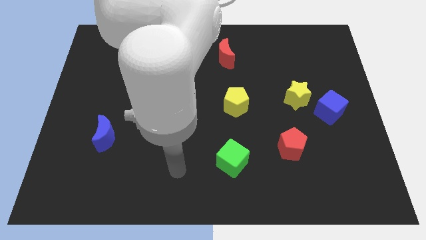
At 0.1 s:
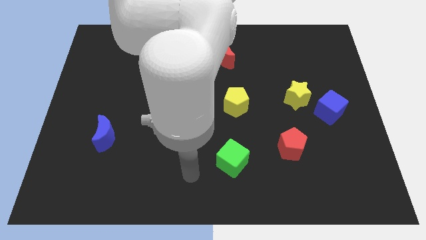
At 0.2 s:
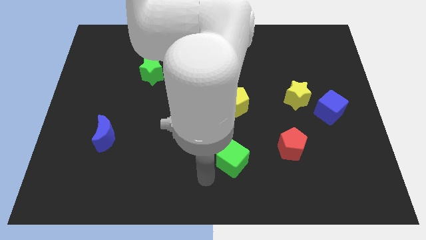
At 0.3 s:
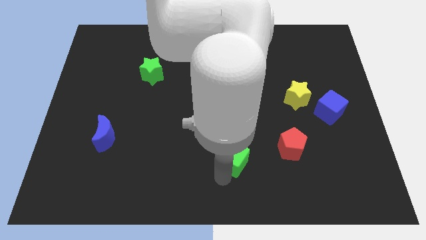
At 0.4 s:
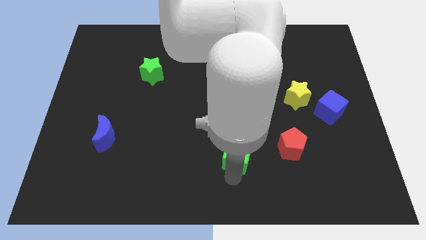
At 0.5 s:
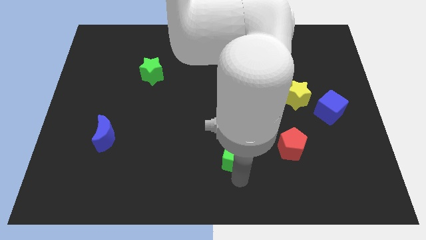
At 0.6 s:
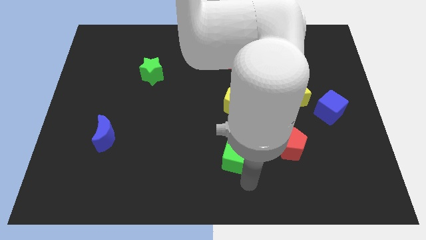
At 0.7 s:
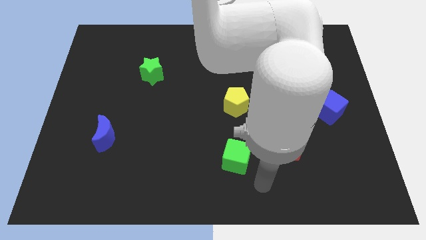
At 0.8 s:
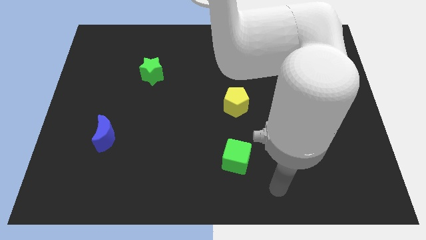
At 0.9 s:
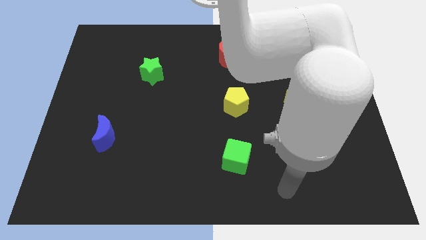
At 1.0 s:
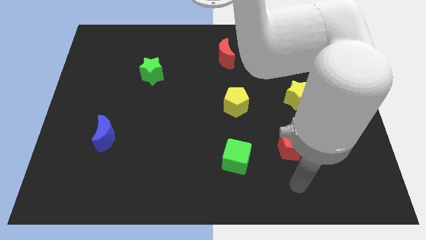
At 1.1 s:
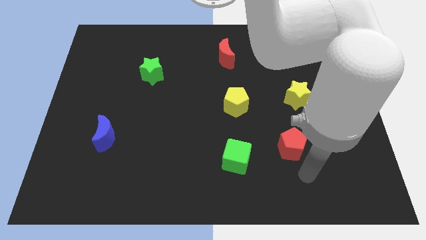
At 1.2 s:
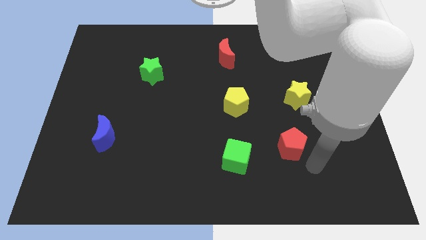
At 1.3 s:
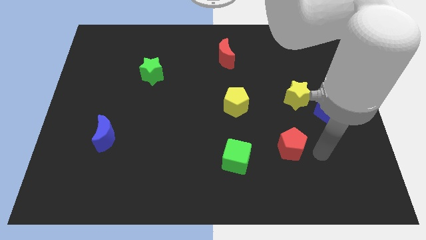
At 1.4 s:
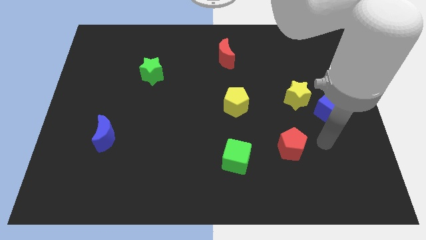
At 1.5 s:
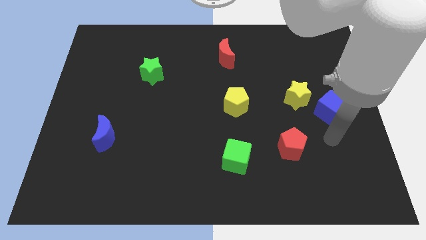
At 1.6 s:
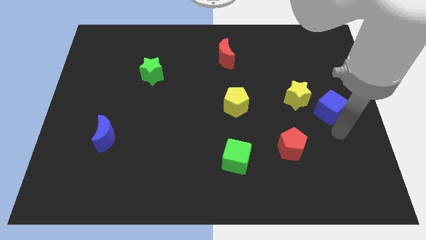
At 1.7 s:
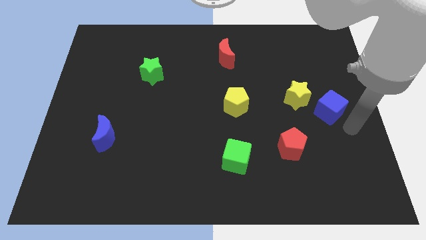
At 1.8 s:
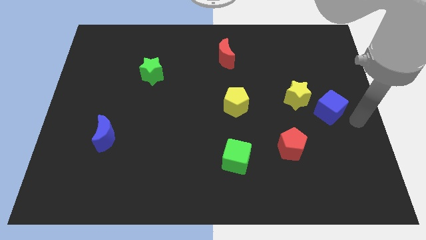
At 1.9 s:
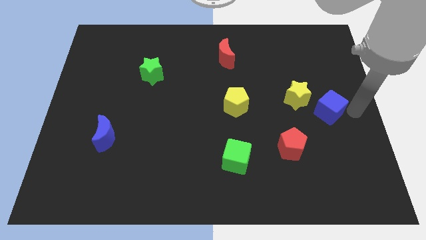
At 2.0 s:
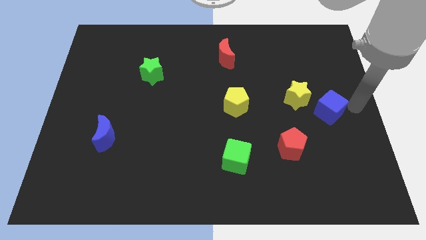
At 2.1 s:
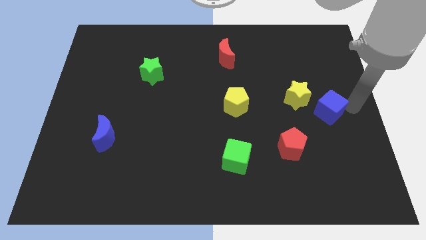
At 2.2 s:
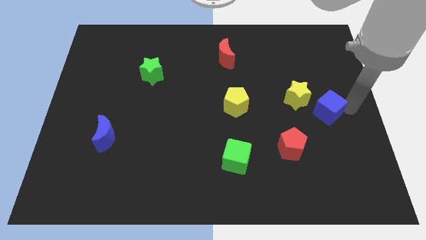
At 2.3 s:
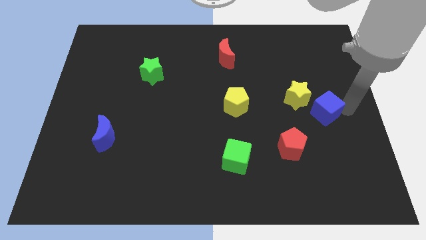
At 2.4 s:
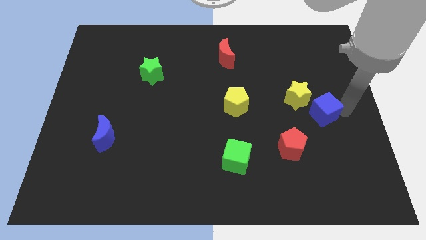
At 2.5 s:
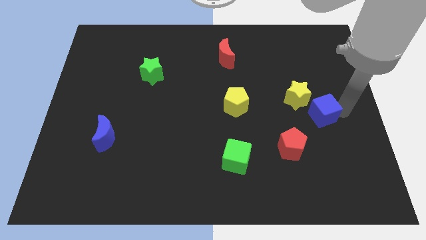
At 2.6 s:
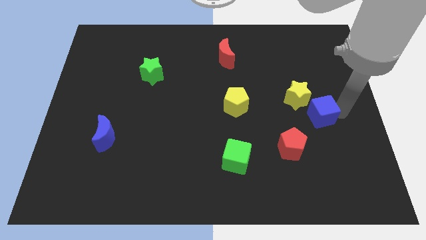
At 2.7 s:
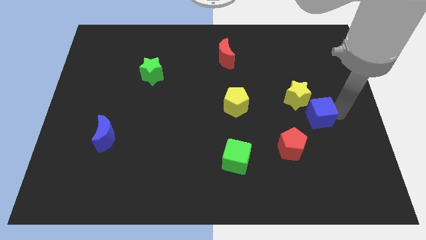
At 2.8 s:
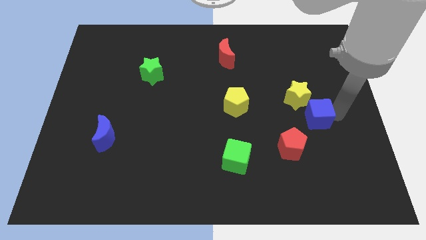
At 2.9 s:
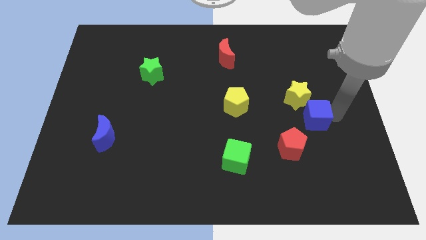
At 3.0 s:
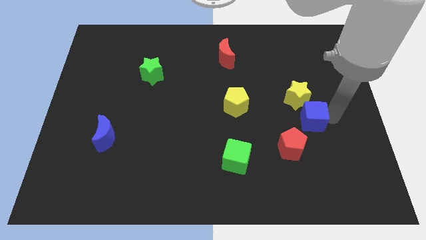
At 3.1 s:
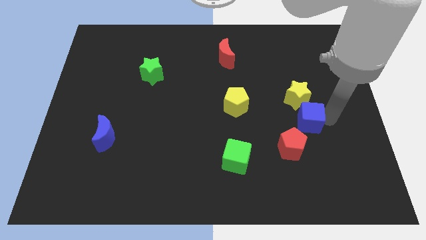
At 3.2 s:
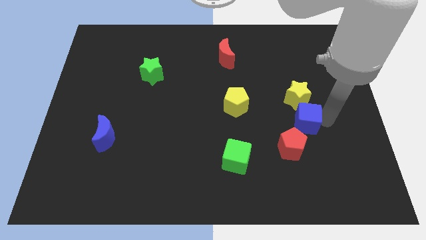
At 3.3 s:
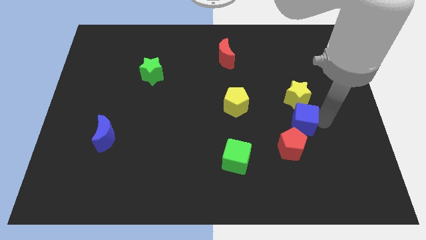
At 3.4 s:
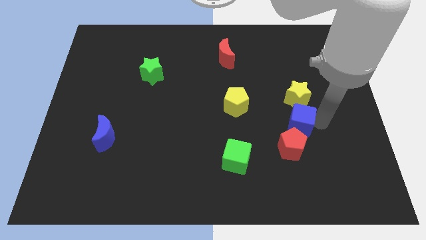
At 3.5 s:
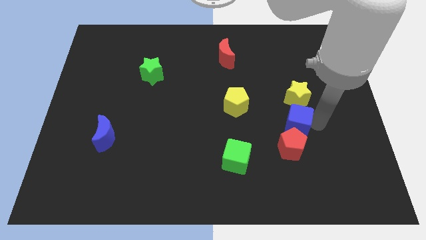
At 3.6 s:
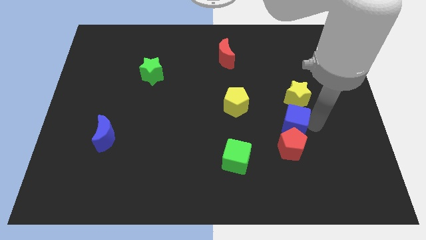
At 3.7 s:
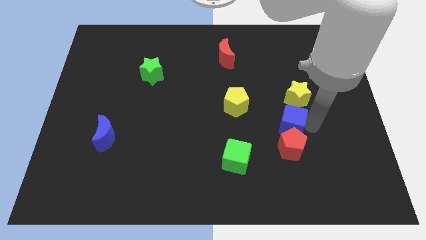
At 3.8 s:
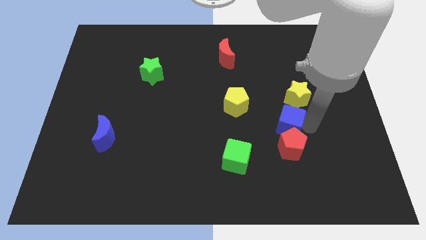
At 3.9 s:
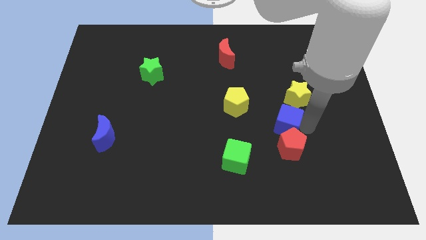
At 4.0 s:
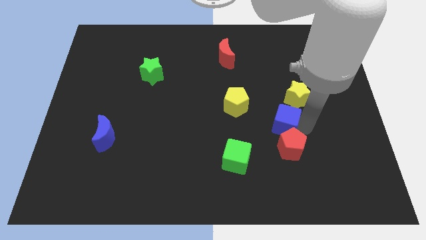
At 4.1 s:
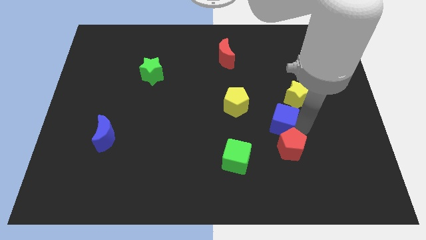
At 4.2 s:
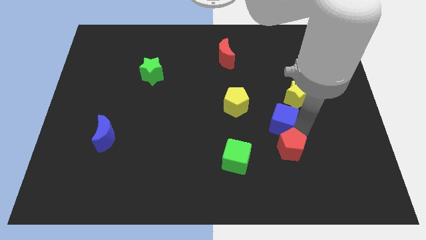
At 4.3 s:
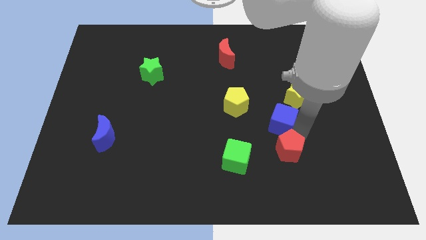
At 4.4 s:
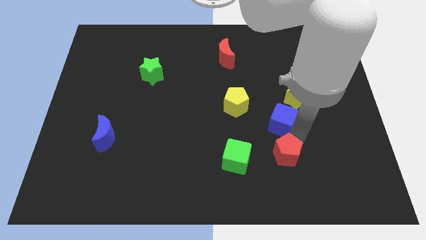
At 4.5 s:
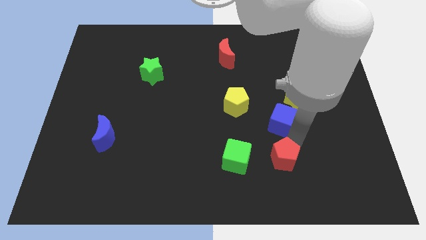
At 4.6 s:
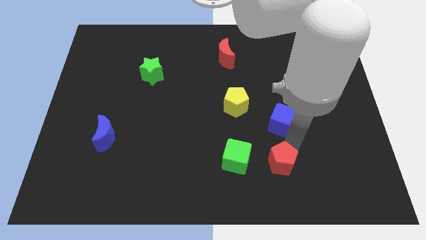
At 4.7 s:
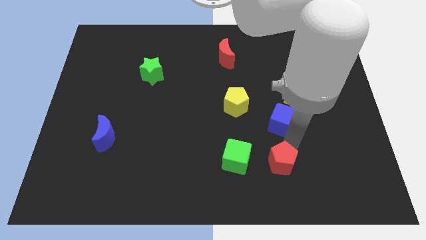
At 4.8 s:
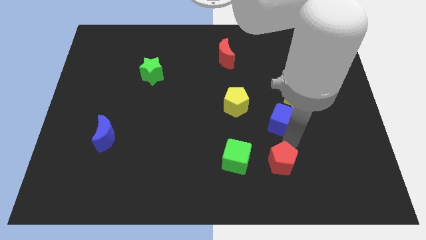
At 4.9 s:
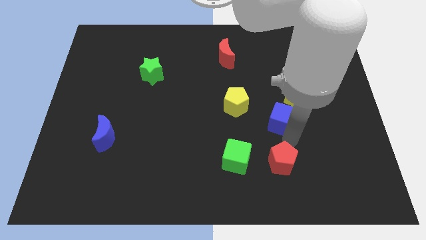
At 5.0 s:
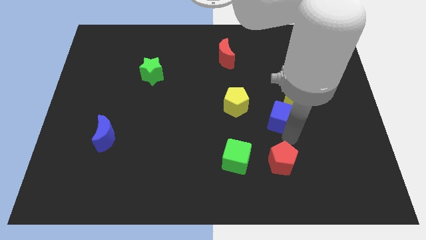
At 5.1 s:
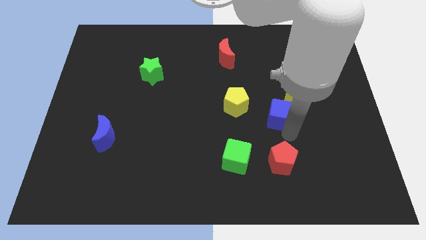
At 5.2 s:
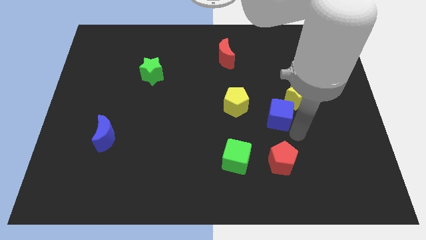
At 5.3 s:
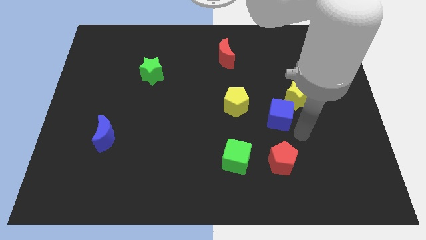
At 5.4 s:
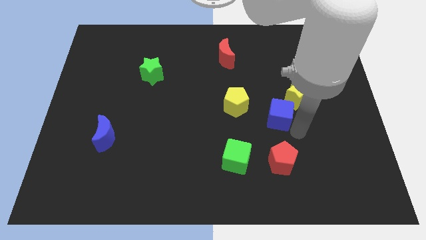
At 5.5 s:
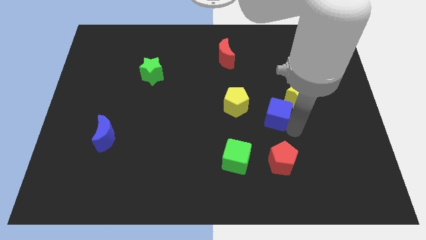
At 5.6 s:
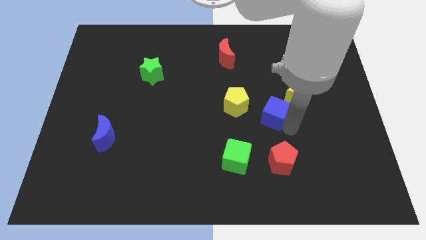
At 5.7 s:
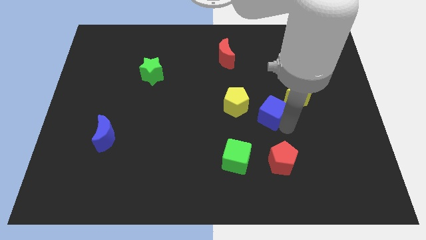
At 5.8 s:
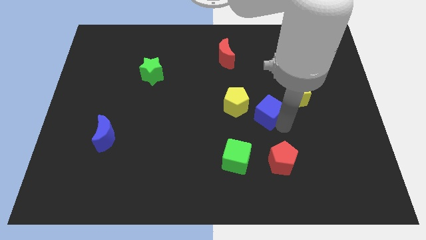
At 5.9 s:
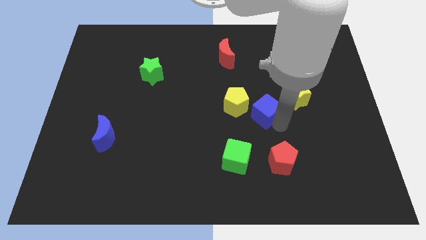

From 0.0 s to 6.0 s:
slide the blue cube left of the yellow star

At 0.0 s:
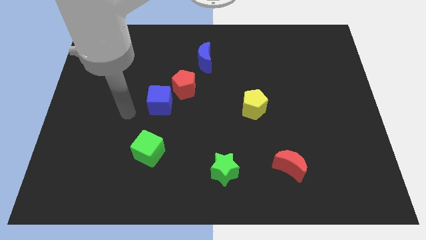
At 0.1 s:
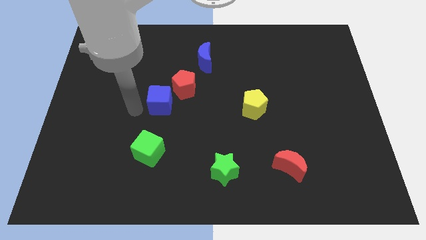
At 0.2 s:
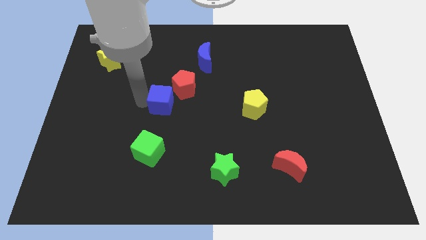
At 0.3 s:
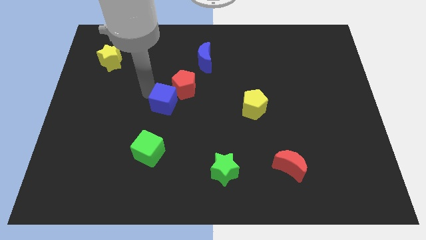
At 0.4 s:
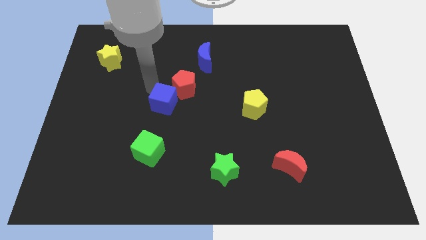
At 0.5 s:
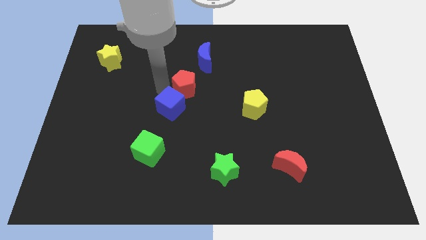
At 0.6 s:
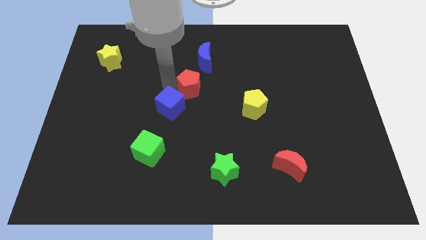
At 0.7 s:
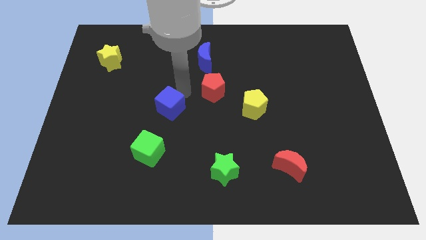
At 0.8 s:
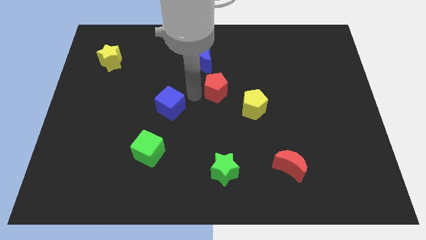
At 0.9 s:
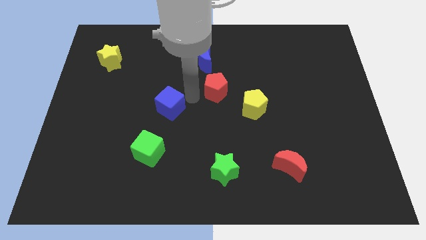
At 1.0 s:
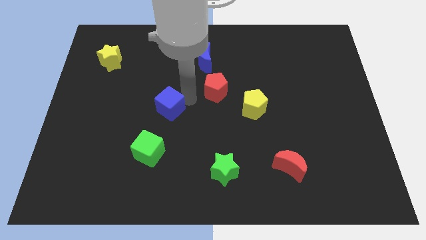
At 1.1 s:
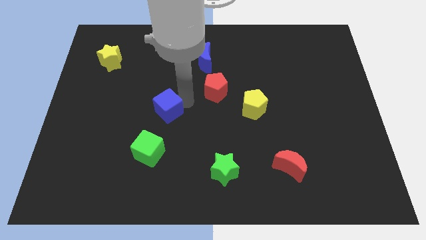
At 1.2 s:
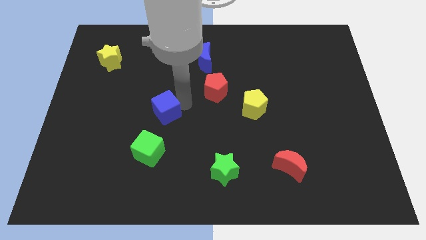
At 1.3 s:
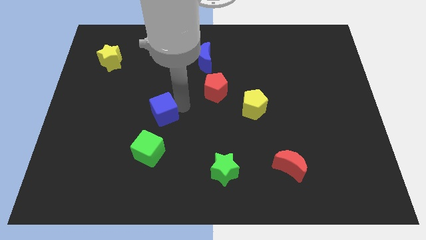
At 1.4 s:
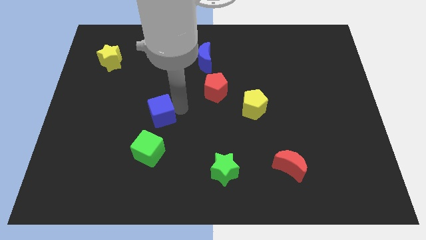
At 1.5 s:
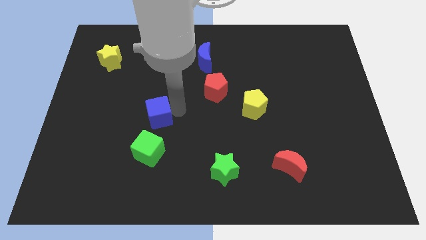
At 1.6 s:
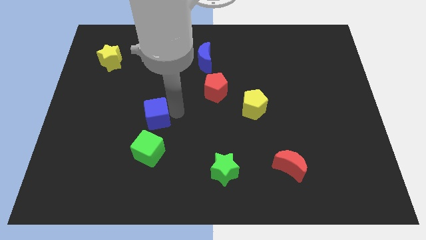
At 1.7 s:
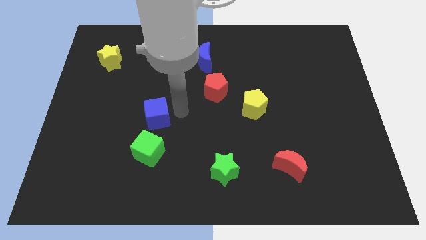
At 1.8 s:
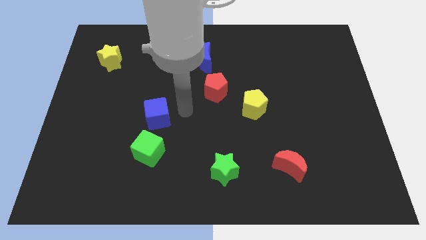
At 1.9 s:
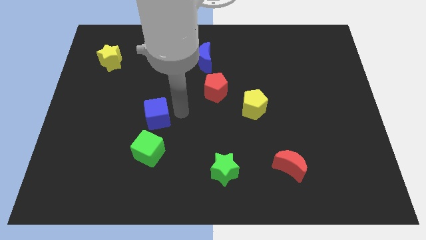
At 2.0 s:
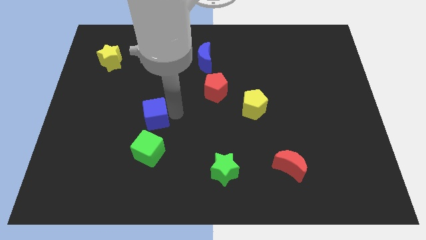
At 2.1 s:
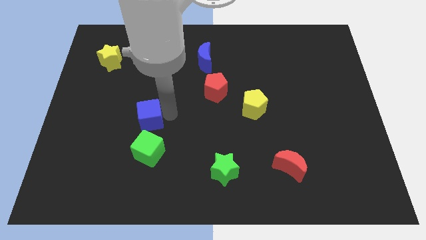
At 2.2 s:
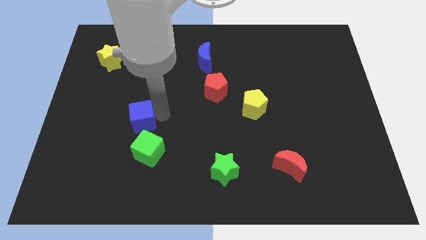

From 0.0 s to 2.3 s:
slide the blue cube to the top left side of the green cube
